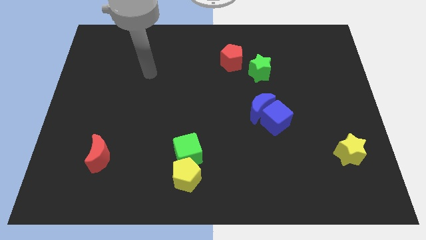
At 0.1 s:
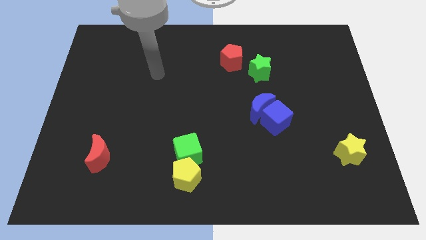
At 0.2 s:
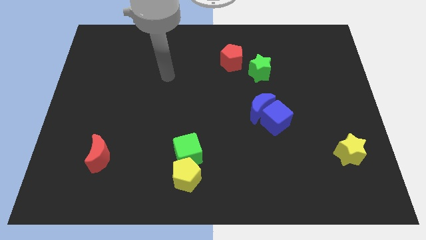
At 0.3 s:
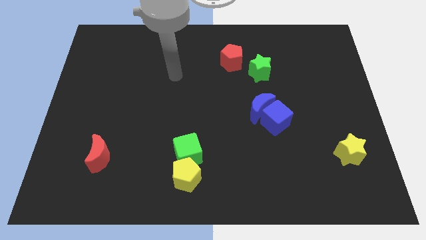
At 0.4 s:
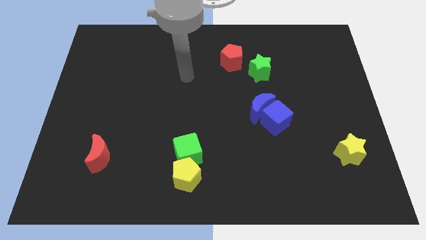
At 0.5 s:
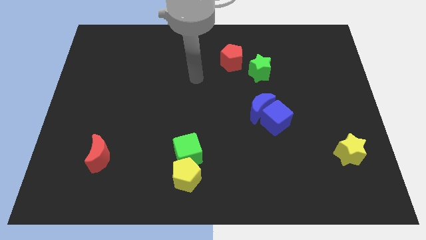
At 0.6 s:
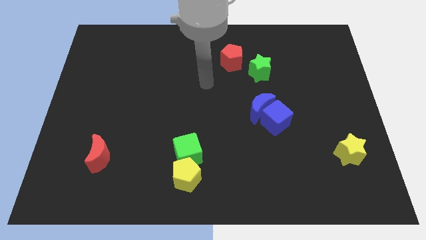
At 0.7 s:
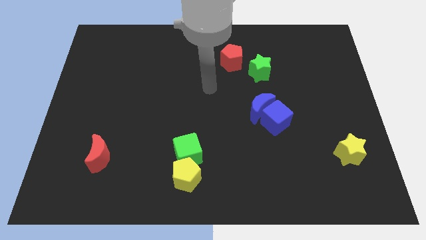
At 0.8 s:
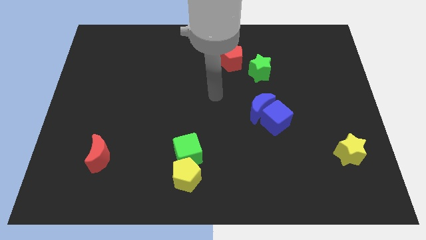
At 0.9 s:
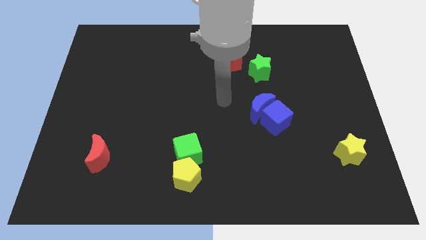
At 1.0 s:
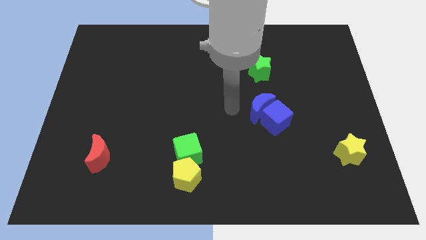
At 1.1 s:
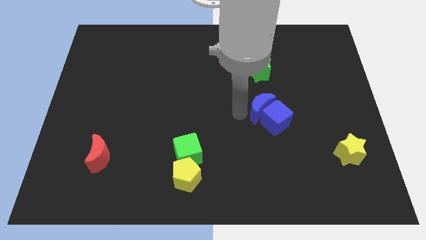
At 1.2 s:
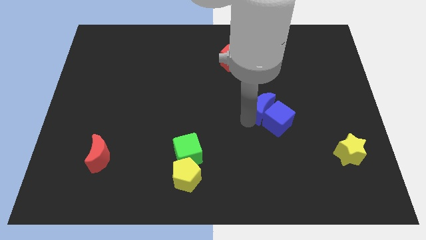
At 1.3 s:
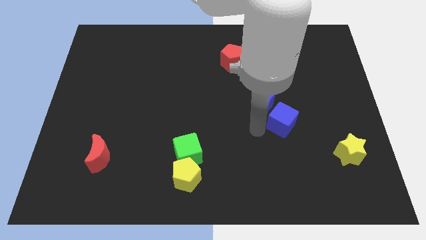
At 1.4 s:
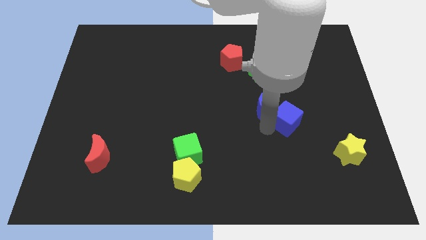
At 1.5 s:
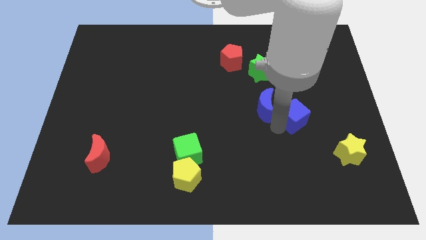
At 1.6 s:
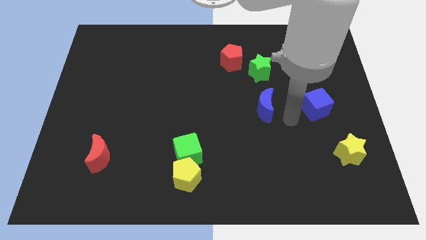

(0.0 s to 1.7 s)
separate the blue moon from the blue cube

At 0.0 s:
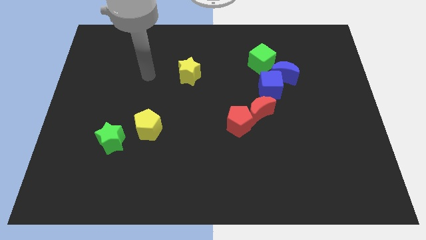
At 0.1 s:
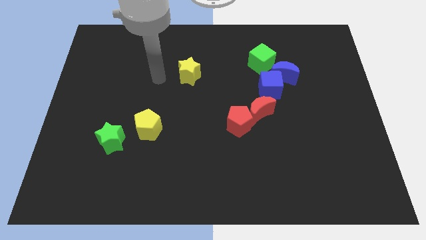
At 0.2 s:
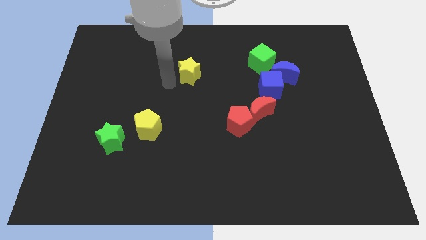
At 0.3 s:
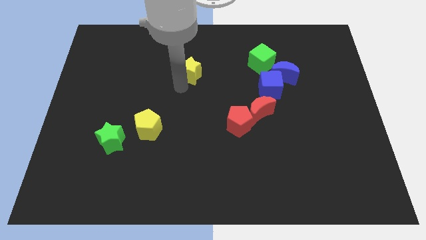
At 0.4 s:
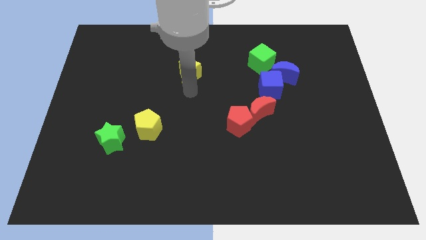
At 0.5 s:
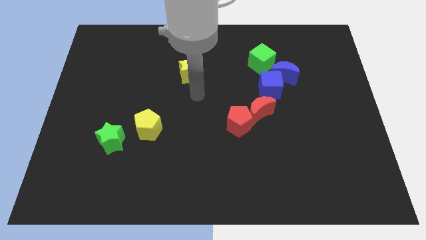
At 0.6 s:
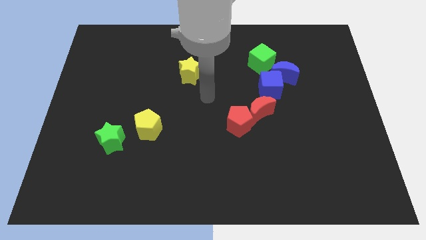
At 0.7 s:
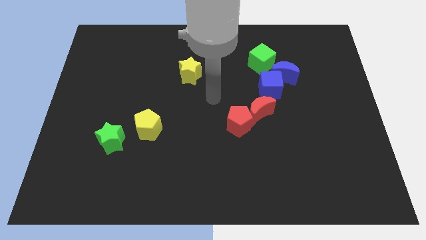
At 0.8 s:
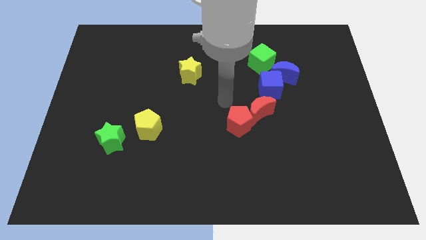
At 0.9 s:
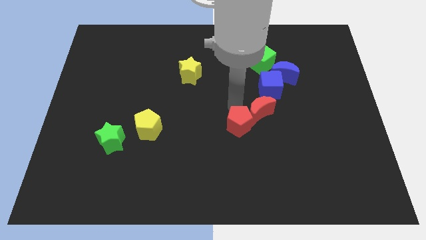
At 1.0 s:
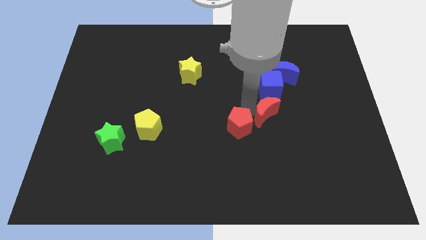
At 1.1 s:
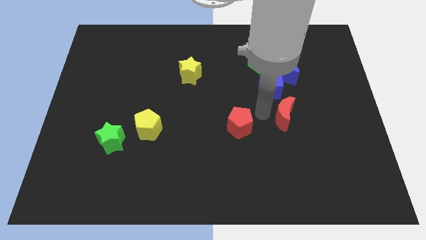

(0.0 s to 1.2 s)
pull the red pentagon apart from the red moon

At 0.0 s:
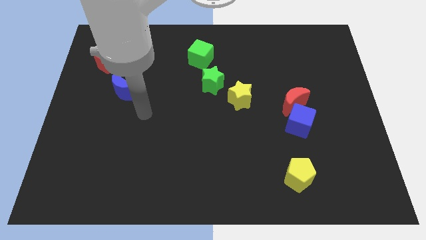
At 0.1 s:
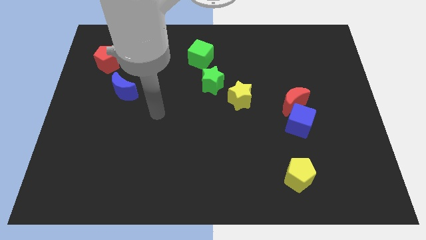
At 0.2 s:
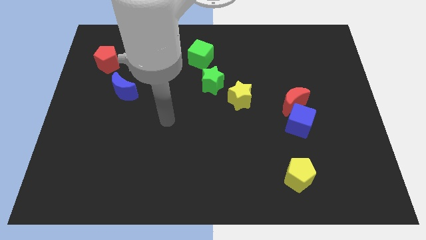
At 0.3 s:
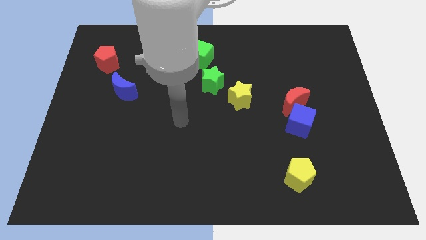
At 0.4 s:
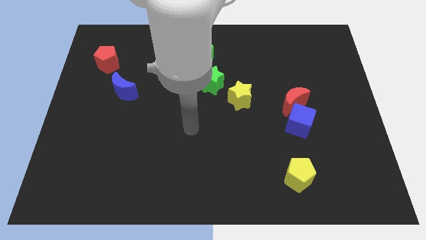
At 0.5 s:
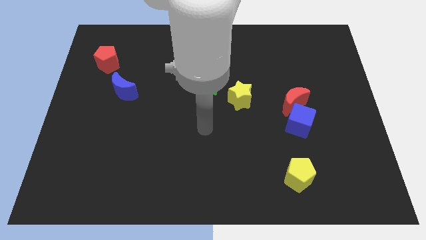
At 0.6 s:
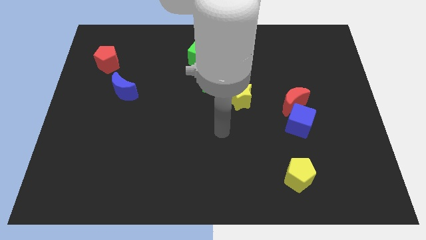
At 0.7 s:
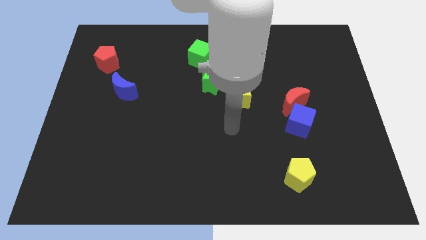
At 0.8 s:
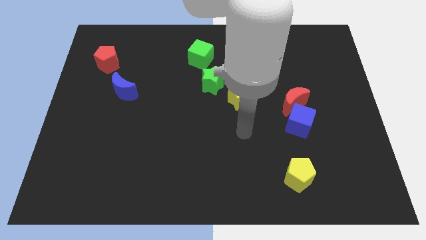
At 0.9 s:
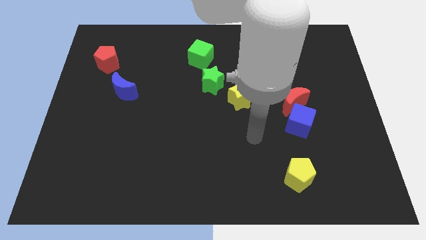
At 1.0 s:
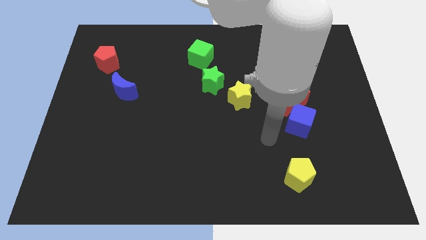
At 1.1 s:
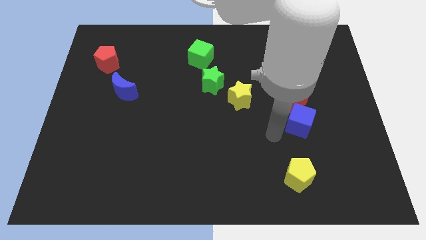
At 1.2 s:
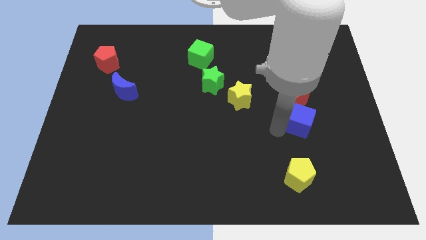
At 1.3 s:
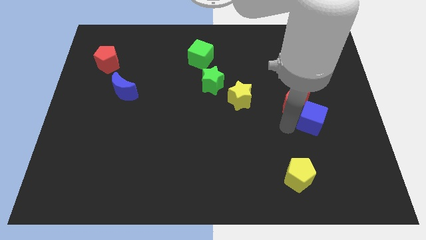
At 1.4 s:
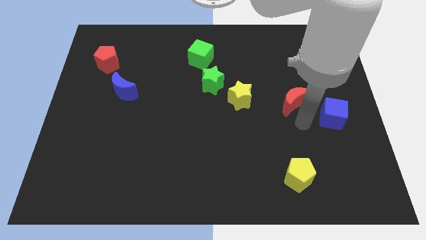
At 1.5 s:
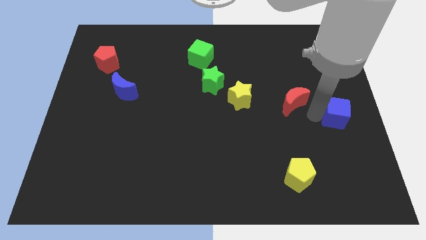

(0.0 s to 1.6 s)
separate the red moon from the blue cube

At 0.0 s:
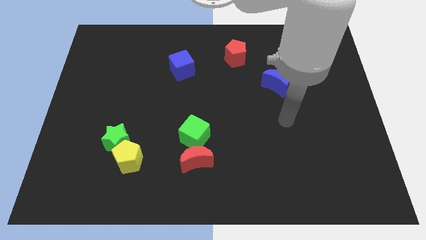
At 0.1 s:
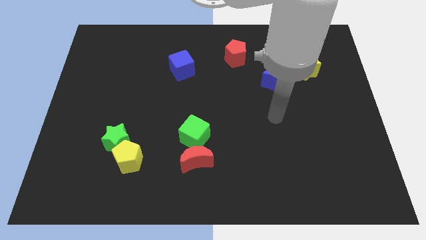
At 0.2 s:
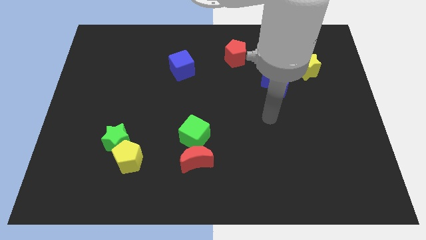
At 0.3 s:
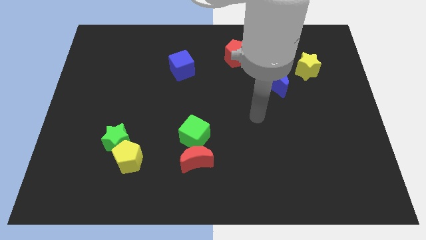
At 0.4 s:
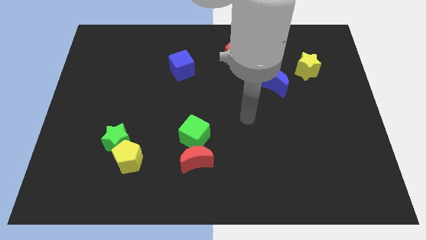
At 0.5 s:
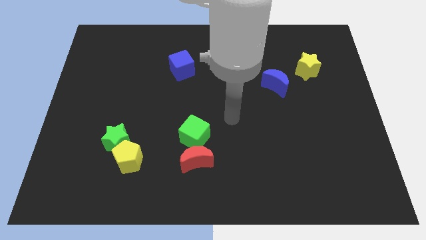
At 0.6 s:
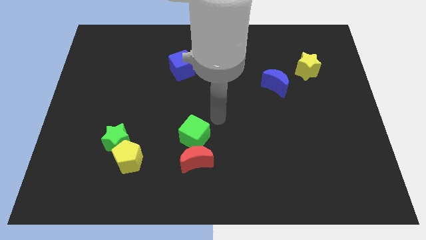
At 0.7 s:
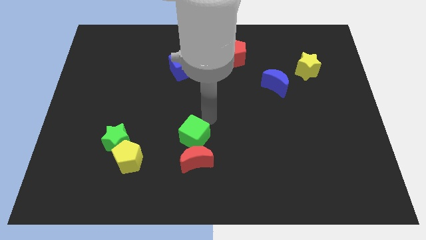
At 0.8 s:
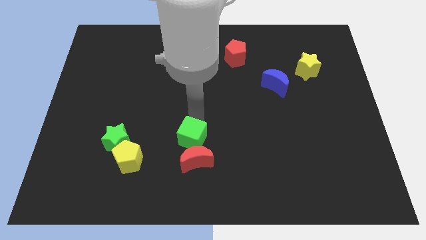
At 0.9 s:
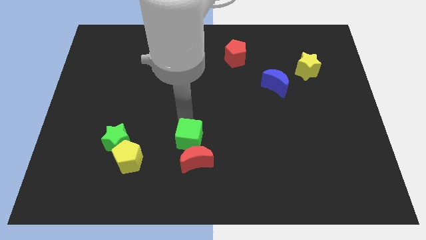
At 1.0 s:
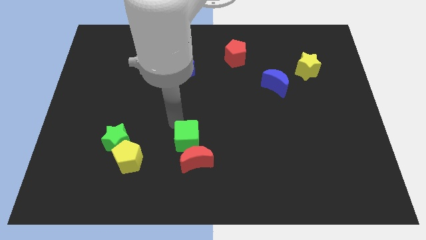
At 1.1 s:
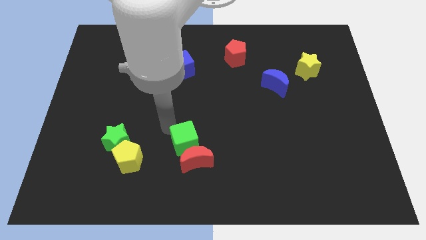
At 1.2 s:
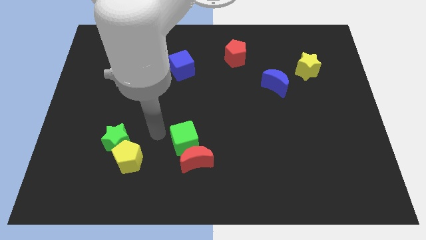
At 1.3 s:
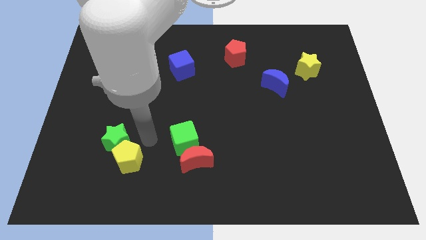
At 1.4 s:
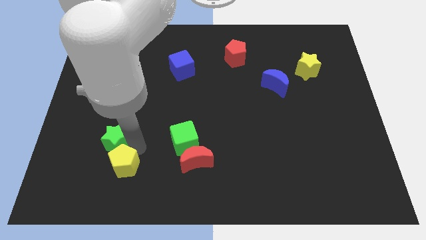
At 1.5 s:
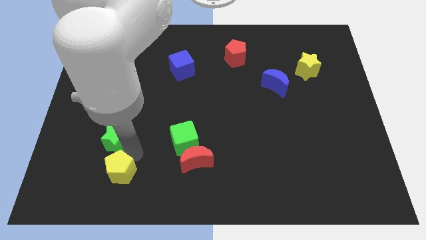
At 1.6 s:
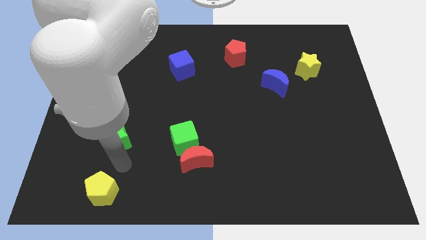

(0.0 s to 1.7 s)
move the green star away from the yellow pentagon

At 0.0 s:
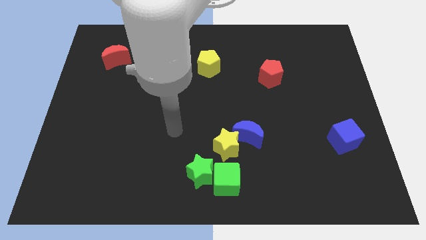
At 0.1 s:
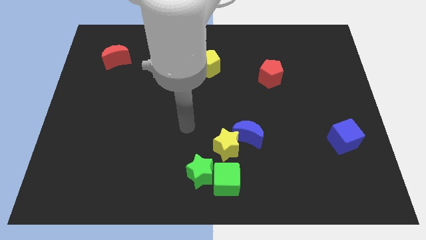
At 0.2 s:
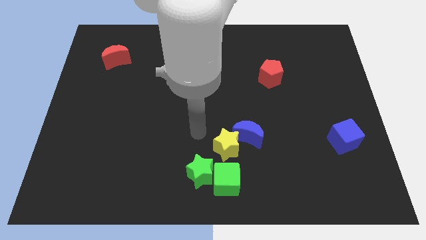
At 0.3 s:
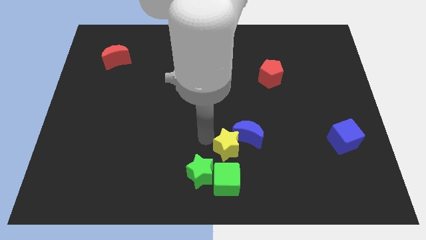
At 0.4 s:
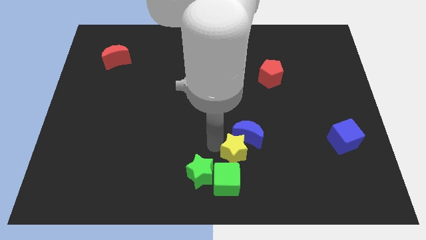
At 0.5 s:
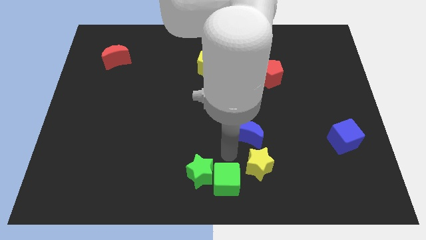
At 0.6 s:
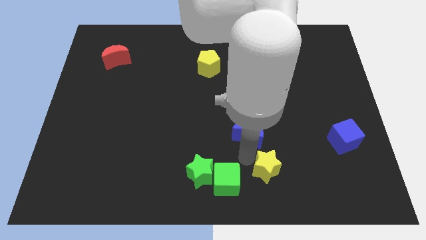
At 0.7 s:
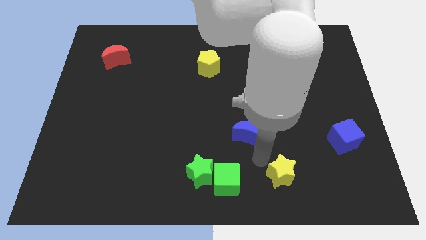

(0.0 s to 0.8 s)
pull the blue moon apart from the yellow star

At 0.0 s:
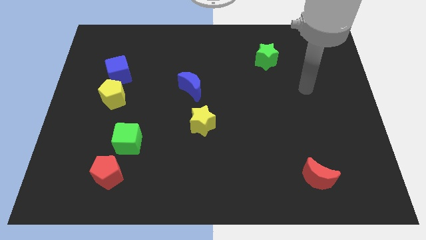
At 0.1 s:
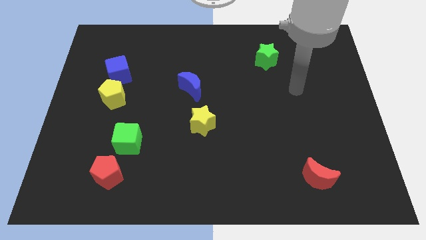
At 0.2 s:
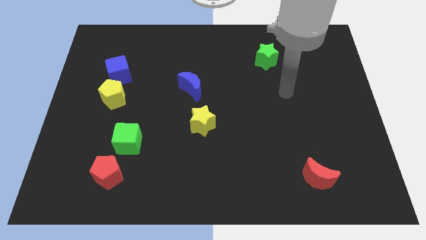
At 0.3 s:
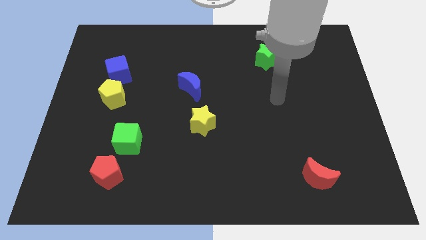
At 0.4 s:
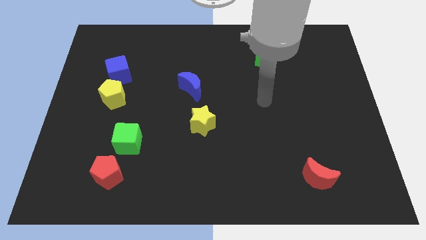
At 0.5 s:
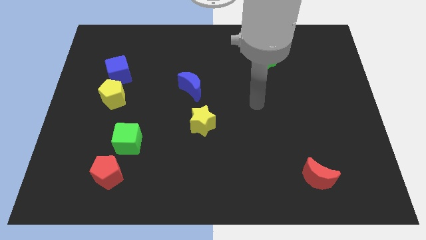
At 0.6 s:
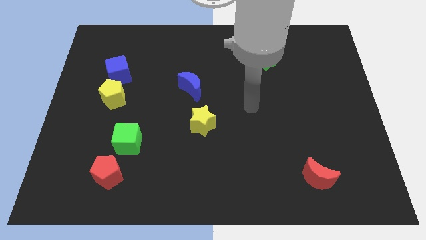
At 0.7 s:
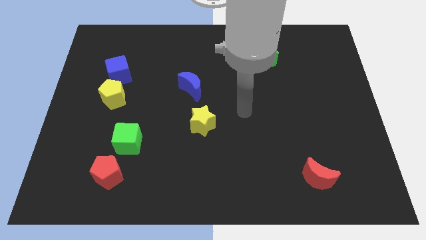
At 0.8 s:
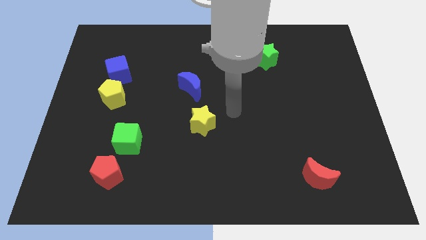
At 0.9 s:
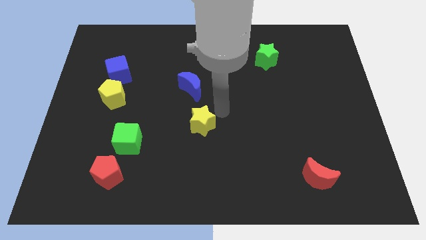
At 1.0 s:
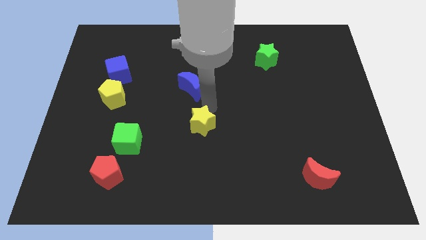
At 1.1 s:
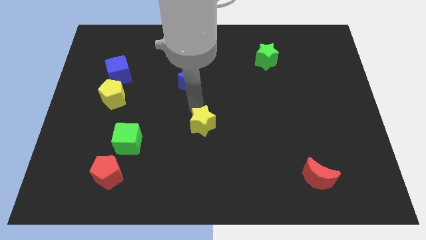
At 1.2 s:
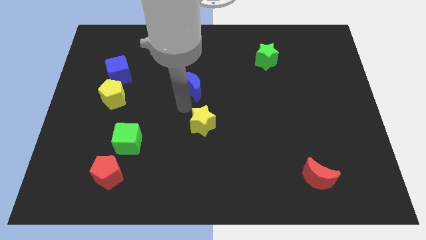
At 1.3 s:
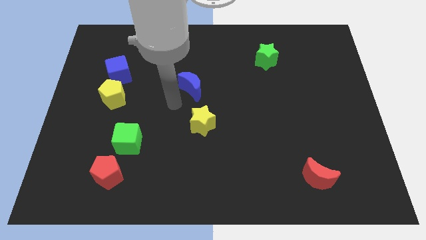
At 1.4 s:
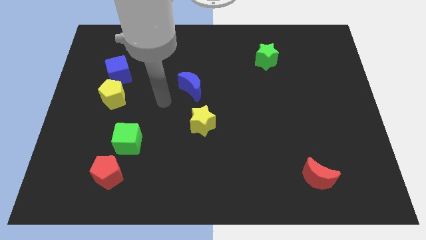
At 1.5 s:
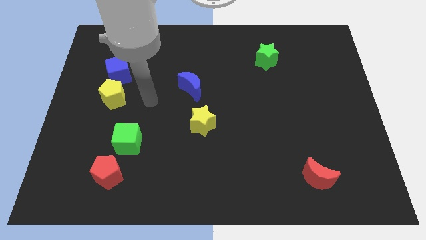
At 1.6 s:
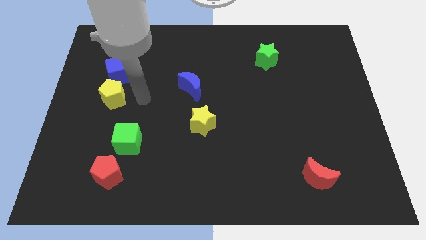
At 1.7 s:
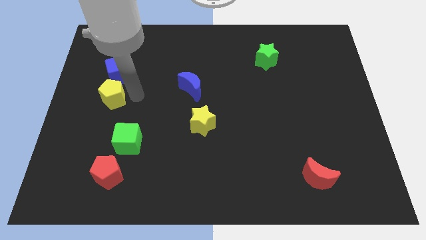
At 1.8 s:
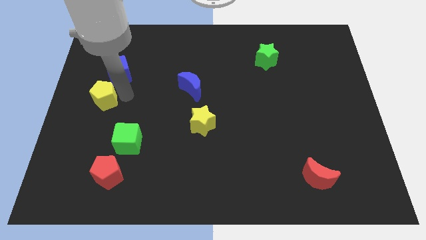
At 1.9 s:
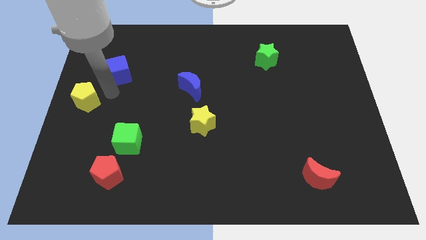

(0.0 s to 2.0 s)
pull the blue cube apart from the yellow pentagon

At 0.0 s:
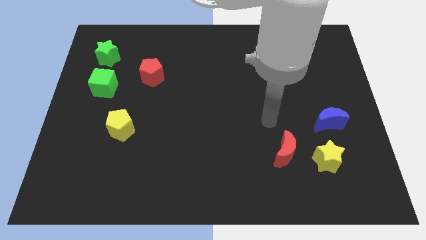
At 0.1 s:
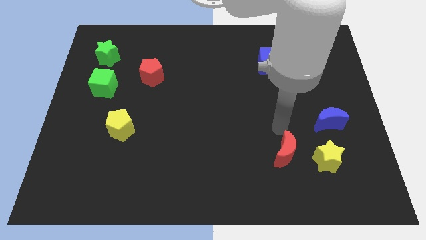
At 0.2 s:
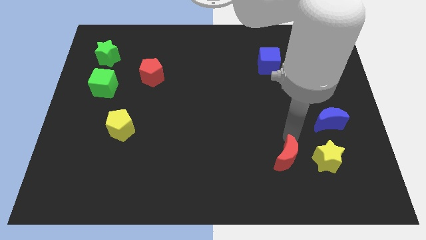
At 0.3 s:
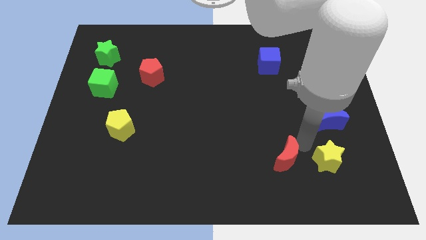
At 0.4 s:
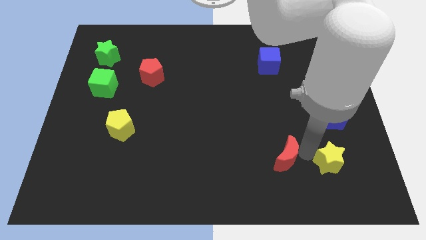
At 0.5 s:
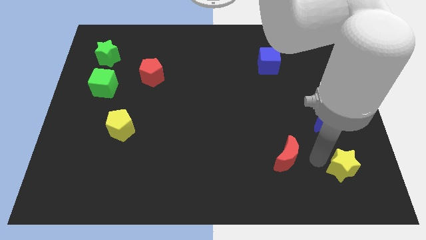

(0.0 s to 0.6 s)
move the red moon away from the yellow star
